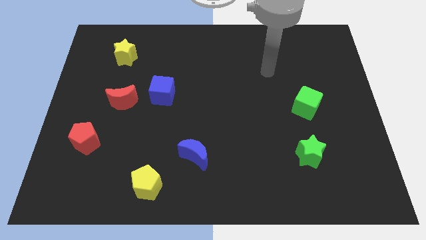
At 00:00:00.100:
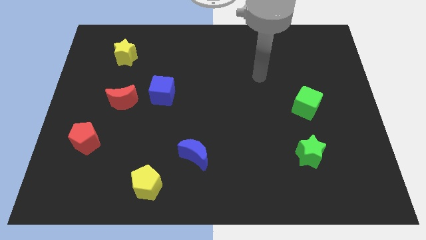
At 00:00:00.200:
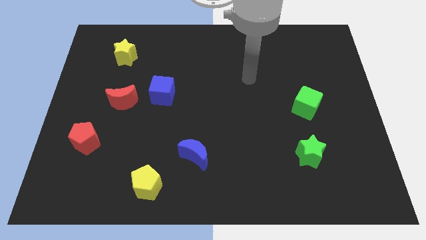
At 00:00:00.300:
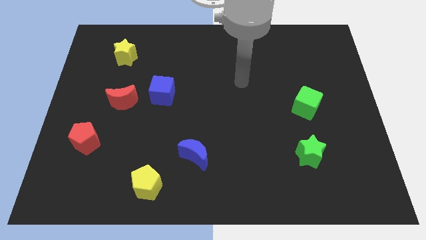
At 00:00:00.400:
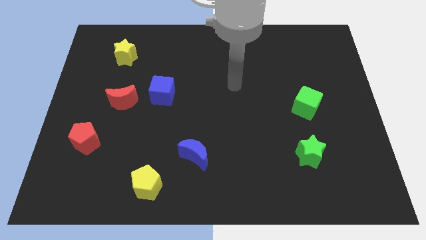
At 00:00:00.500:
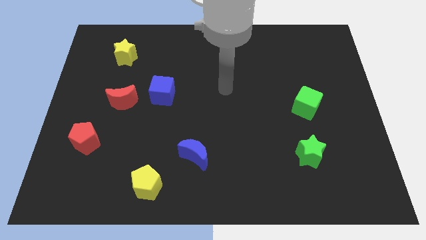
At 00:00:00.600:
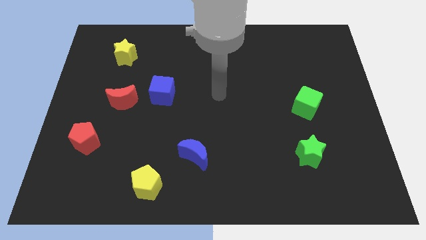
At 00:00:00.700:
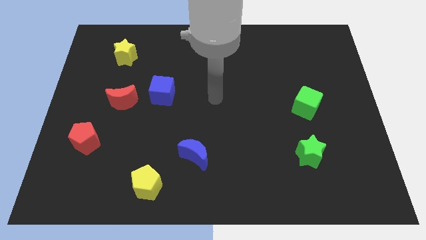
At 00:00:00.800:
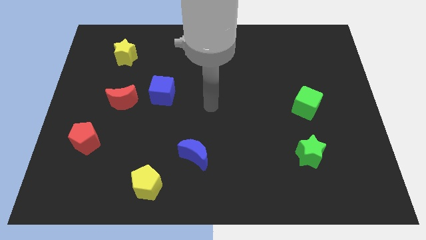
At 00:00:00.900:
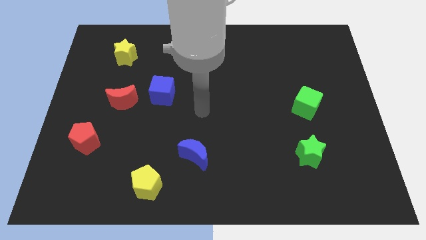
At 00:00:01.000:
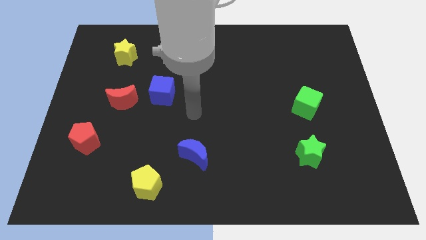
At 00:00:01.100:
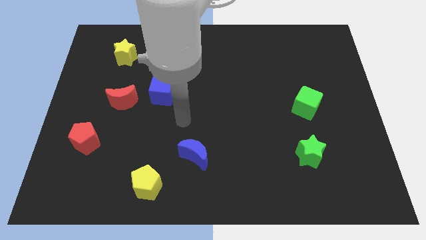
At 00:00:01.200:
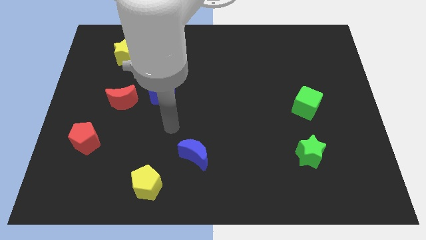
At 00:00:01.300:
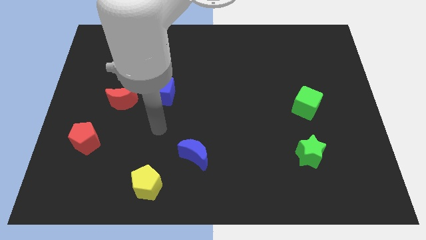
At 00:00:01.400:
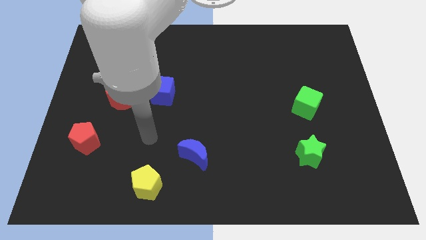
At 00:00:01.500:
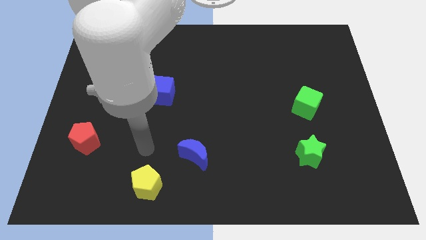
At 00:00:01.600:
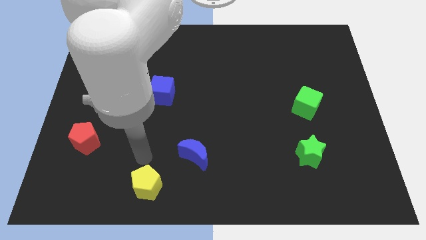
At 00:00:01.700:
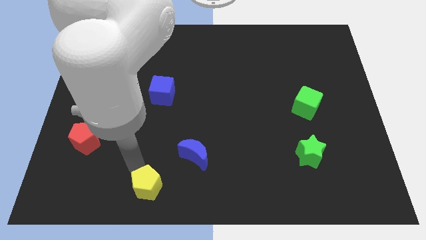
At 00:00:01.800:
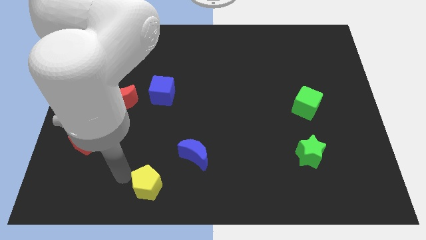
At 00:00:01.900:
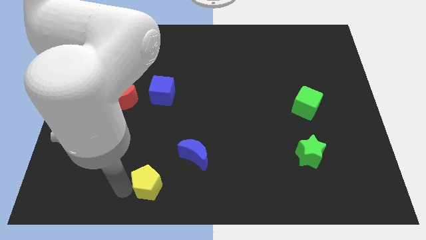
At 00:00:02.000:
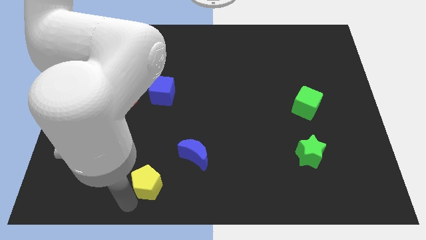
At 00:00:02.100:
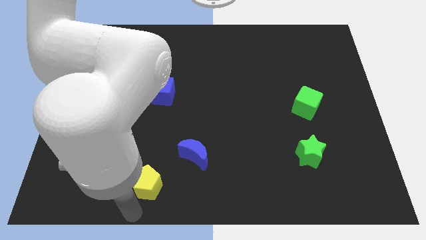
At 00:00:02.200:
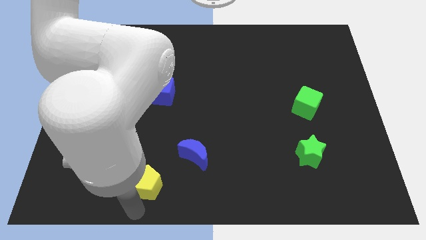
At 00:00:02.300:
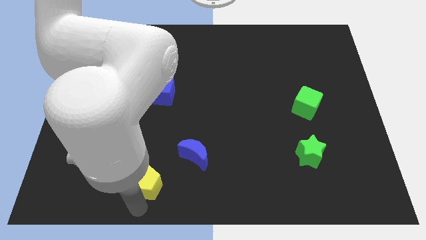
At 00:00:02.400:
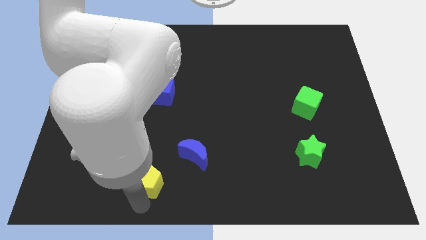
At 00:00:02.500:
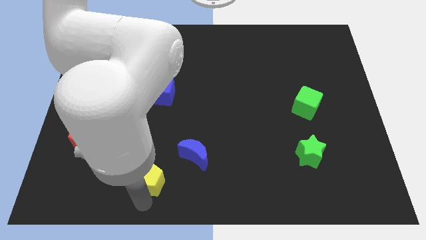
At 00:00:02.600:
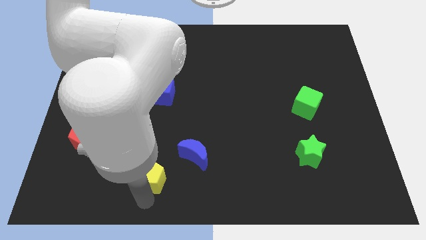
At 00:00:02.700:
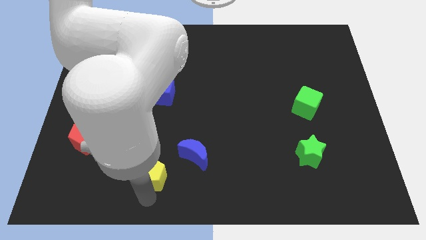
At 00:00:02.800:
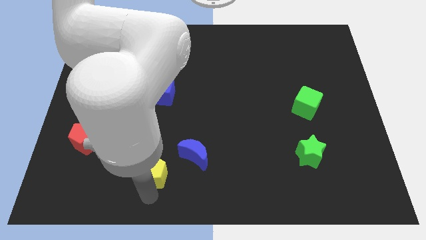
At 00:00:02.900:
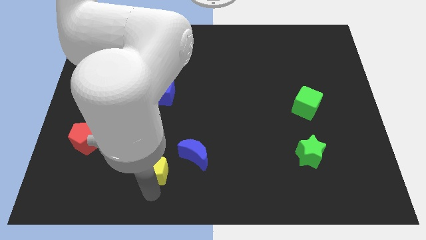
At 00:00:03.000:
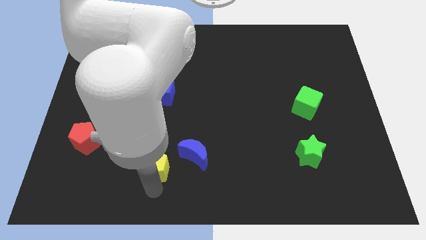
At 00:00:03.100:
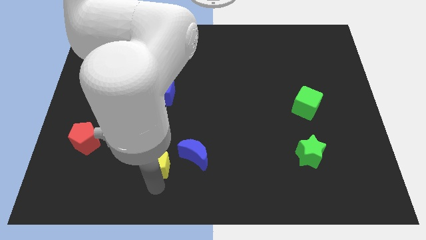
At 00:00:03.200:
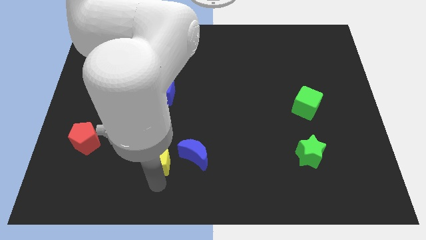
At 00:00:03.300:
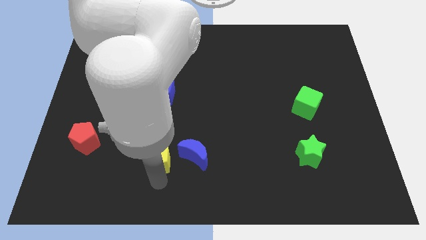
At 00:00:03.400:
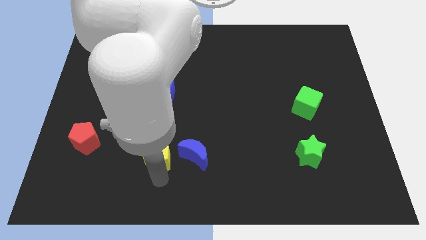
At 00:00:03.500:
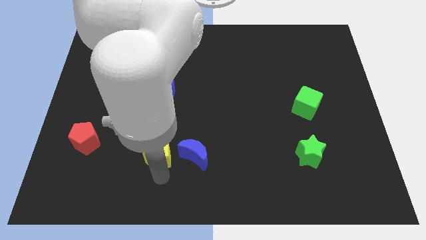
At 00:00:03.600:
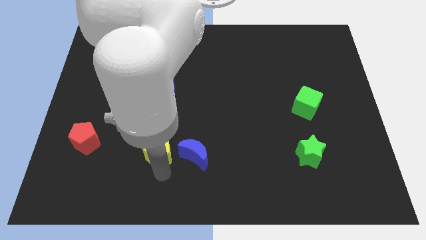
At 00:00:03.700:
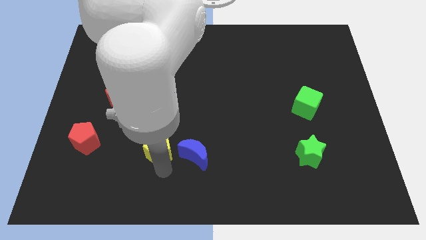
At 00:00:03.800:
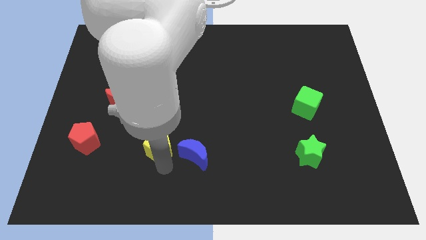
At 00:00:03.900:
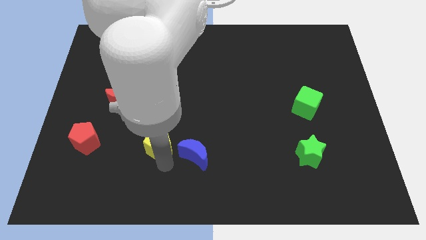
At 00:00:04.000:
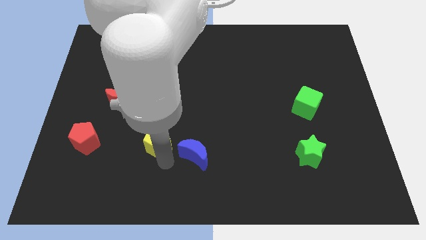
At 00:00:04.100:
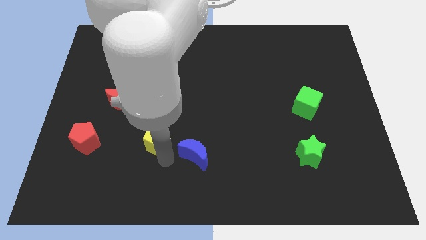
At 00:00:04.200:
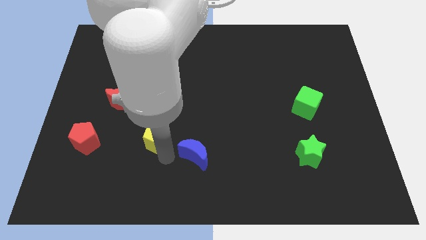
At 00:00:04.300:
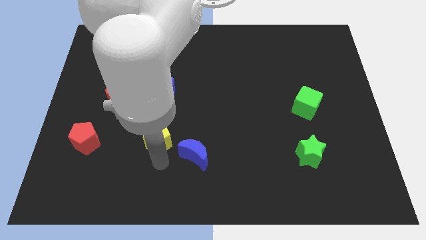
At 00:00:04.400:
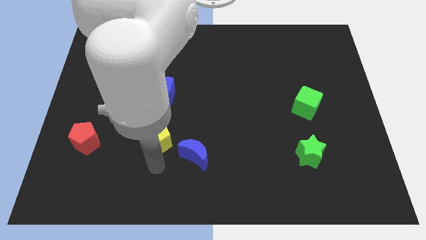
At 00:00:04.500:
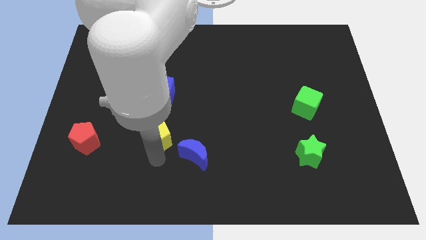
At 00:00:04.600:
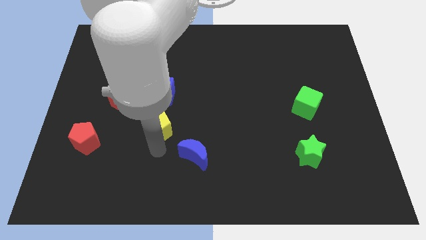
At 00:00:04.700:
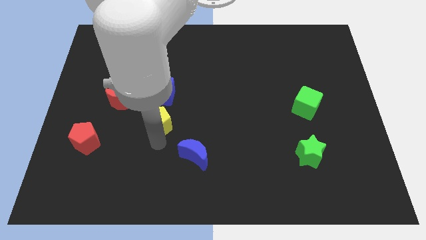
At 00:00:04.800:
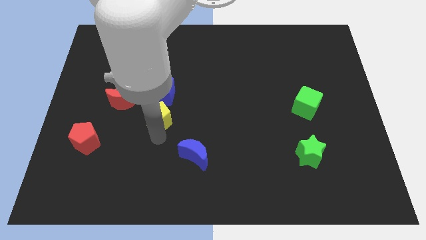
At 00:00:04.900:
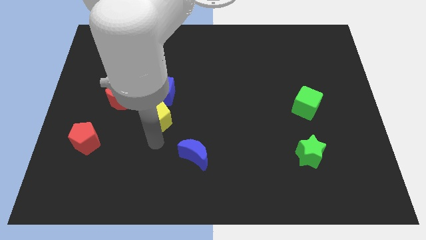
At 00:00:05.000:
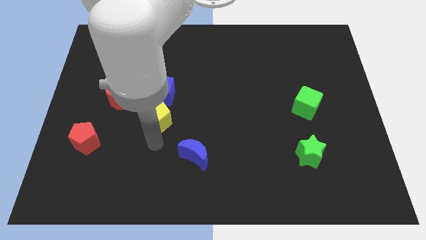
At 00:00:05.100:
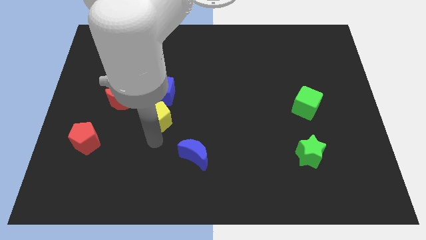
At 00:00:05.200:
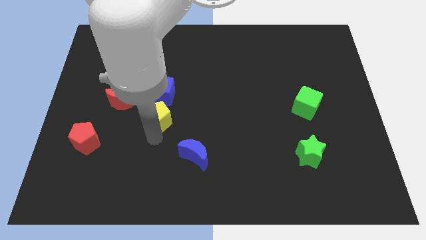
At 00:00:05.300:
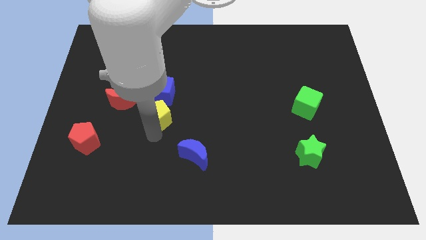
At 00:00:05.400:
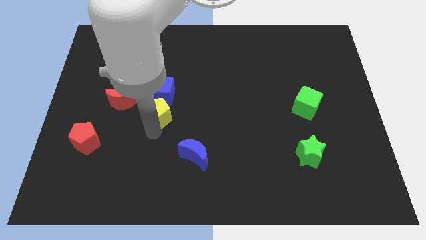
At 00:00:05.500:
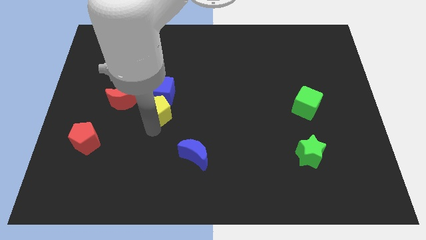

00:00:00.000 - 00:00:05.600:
slide the yellow pentagon to the blue cube

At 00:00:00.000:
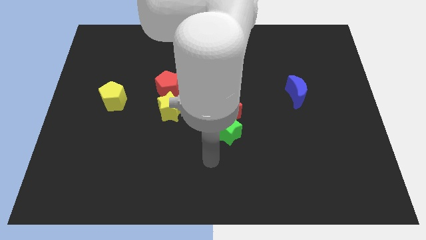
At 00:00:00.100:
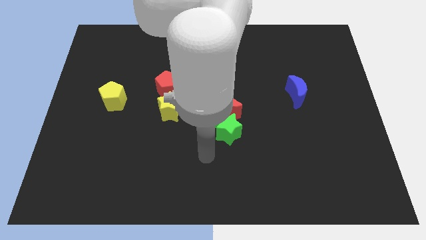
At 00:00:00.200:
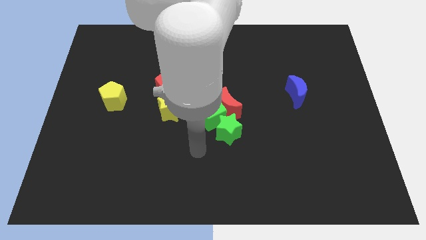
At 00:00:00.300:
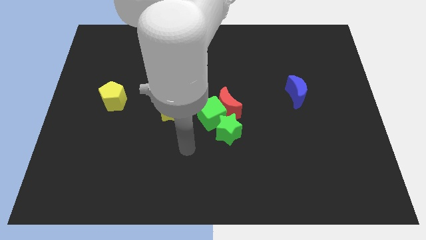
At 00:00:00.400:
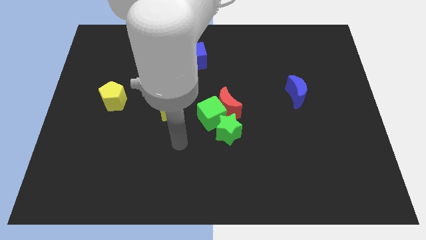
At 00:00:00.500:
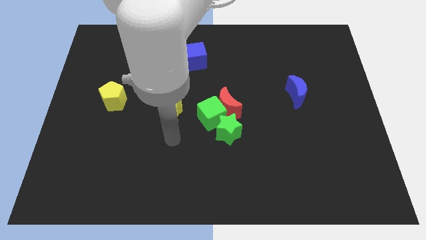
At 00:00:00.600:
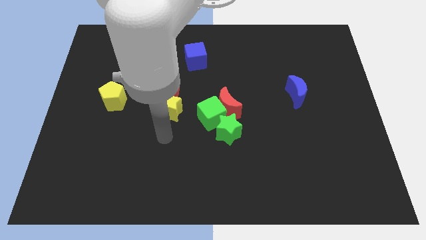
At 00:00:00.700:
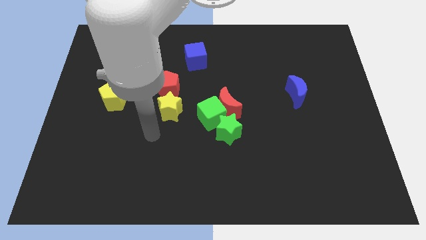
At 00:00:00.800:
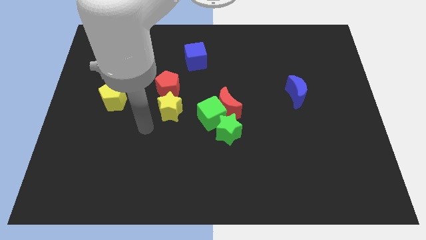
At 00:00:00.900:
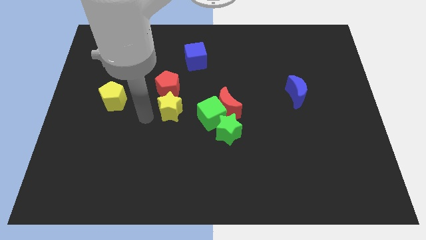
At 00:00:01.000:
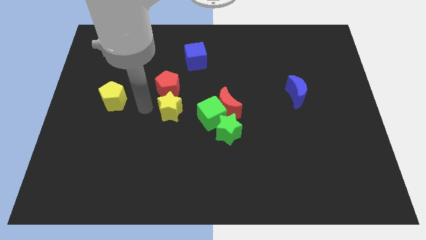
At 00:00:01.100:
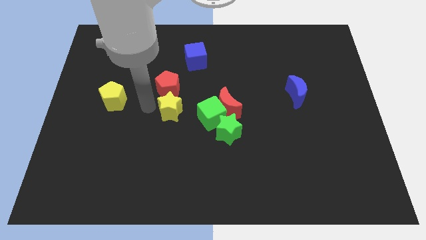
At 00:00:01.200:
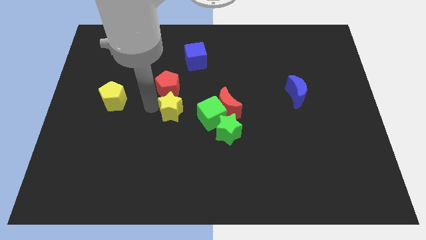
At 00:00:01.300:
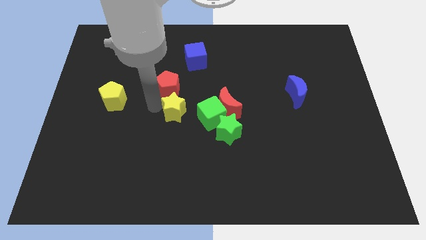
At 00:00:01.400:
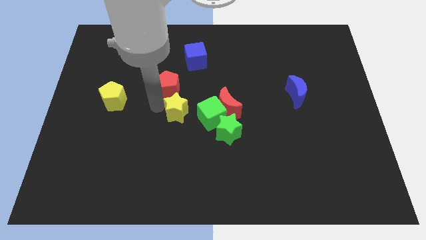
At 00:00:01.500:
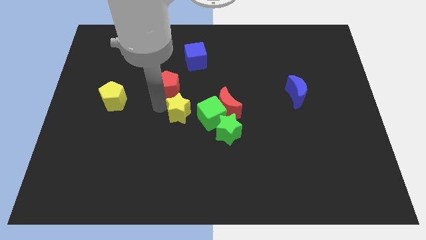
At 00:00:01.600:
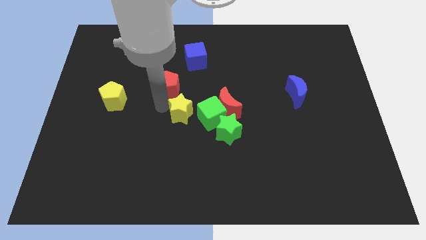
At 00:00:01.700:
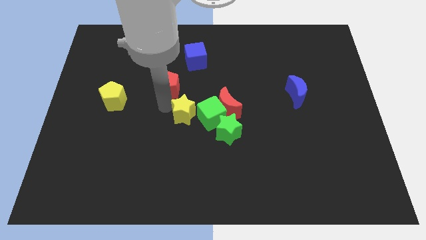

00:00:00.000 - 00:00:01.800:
move the yellow star towards the green cube

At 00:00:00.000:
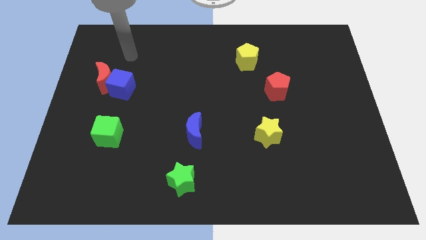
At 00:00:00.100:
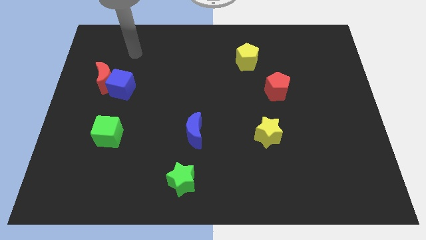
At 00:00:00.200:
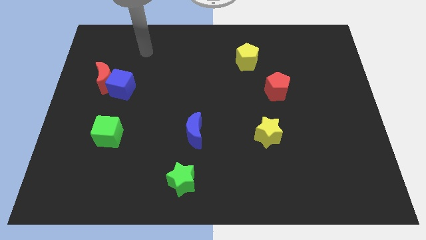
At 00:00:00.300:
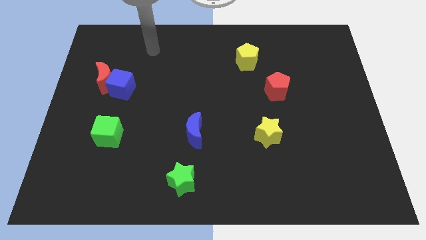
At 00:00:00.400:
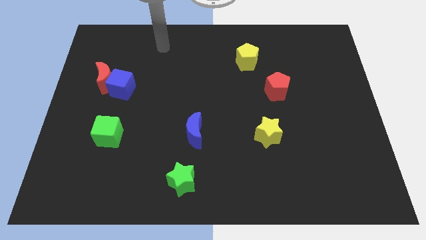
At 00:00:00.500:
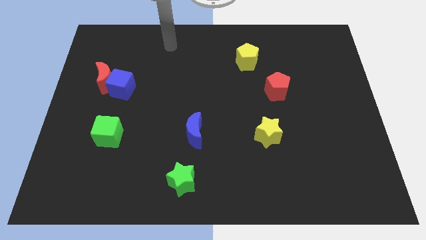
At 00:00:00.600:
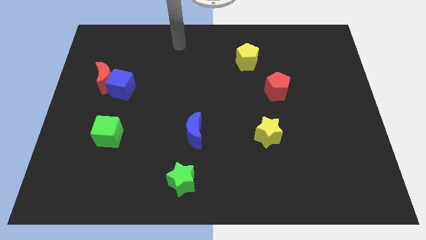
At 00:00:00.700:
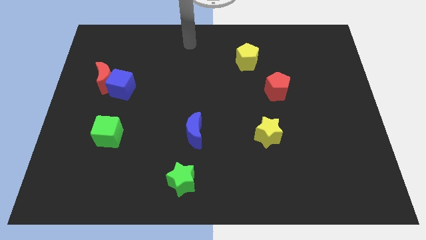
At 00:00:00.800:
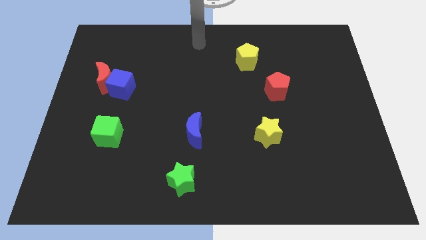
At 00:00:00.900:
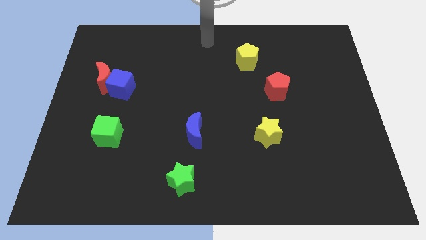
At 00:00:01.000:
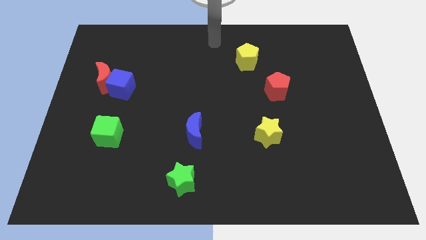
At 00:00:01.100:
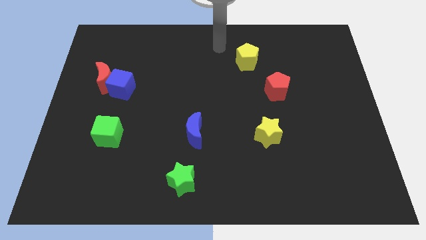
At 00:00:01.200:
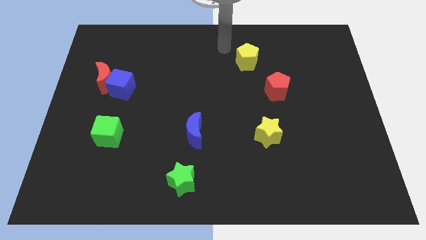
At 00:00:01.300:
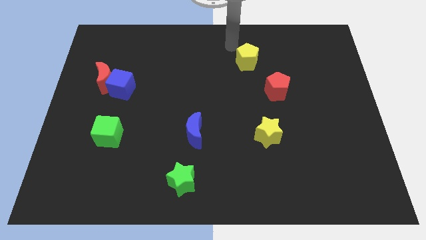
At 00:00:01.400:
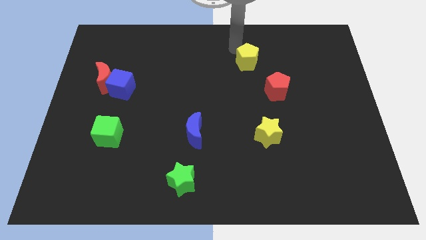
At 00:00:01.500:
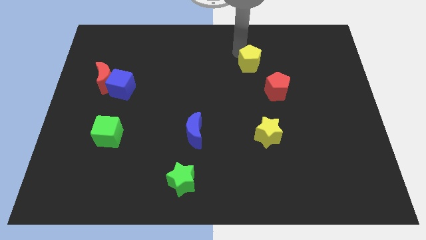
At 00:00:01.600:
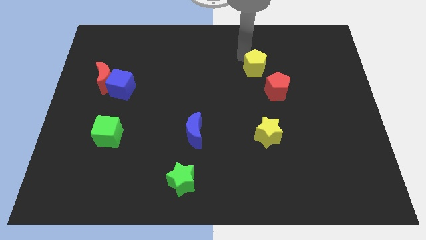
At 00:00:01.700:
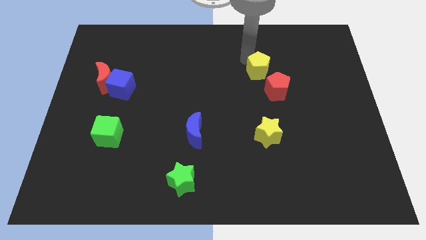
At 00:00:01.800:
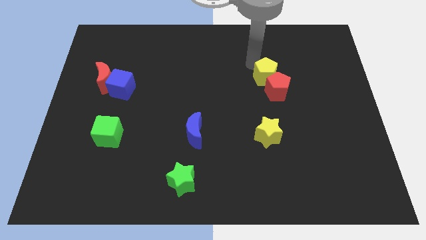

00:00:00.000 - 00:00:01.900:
slide the yellow pentagon close to the red pentagon
